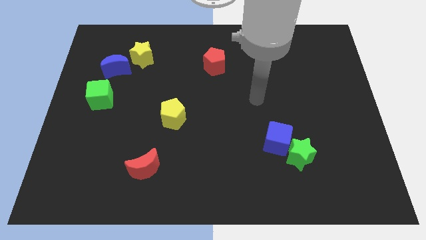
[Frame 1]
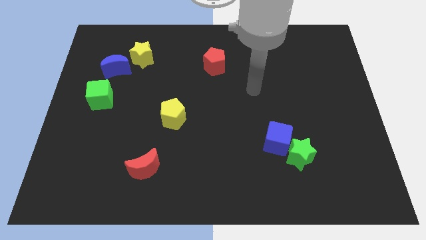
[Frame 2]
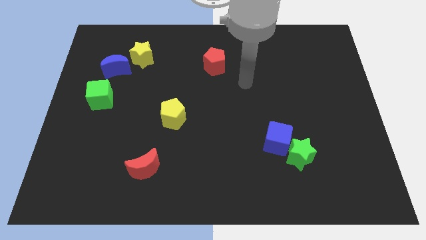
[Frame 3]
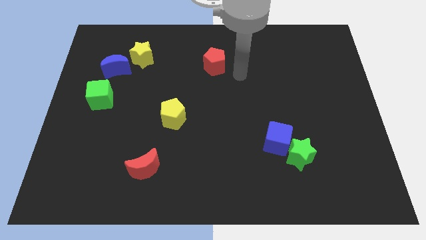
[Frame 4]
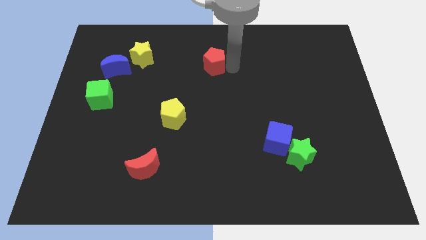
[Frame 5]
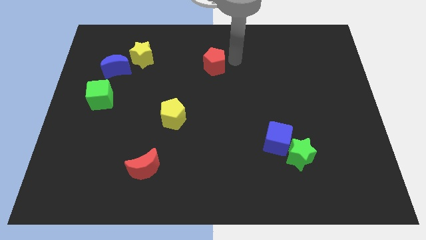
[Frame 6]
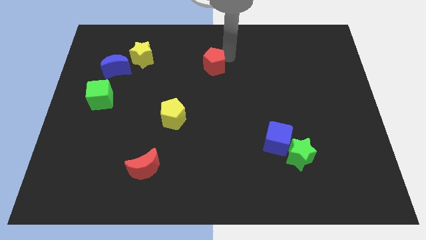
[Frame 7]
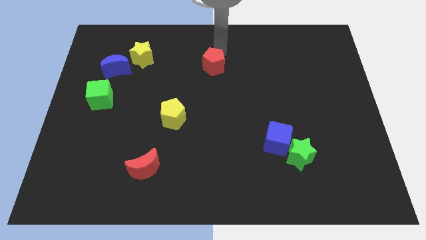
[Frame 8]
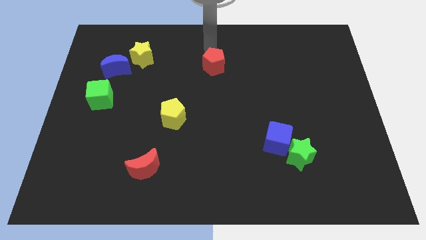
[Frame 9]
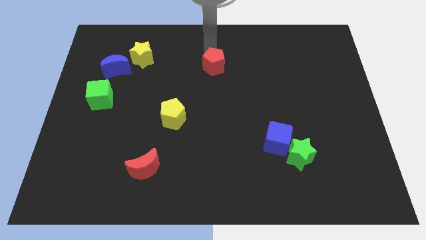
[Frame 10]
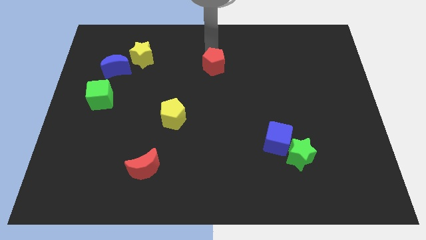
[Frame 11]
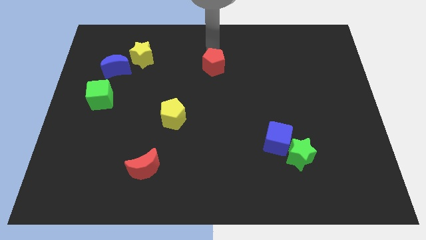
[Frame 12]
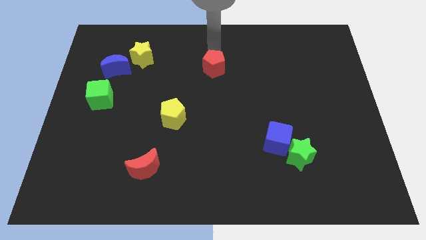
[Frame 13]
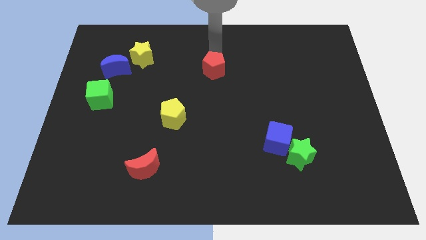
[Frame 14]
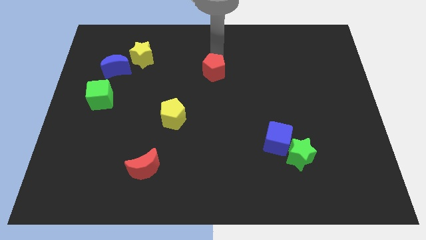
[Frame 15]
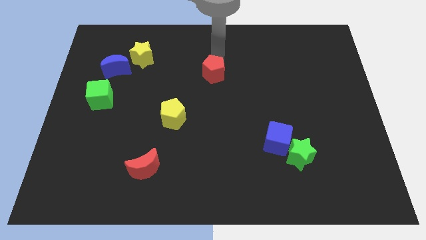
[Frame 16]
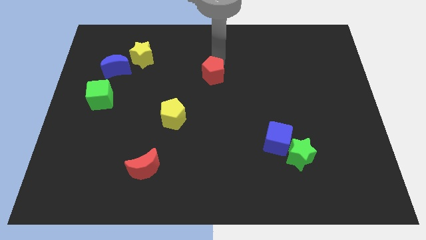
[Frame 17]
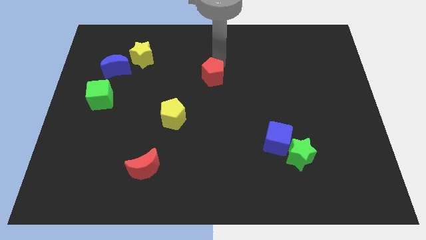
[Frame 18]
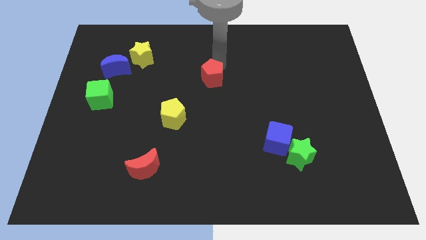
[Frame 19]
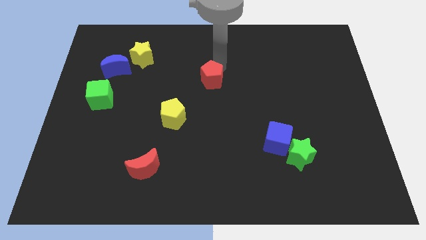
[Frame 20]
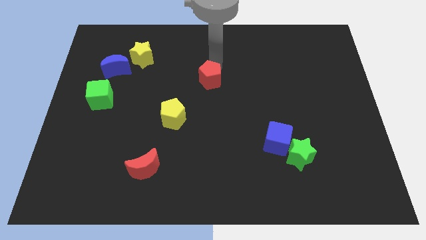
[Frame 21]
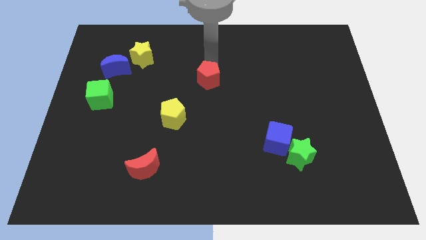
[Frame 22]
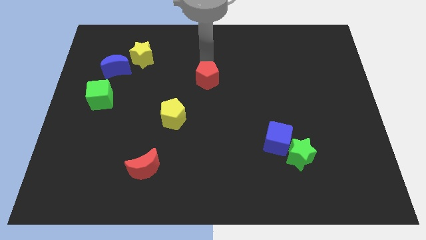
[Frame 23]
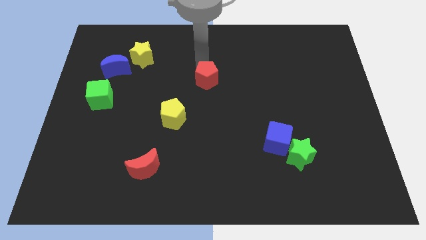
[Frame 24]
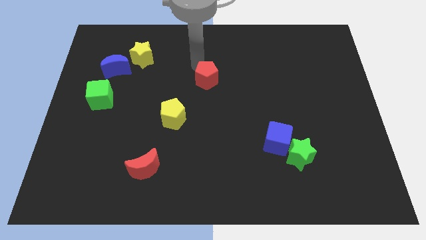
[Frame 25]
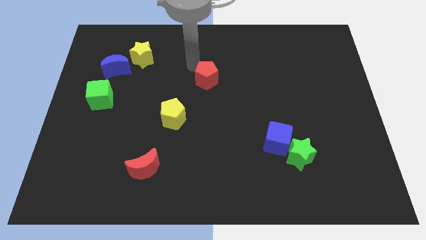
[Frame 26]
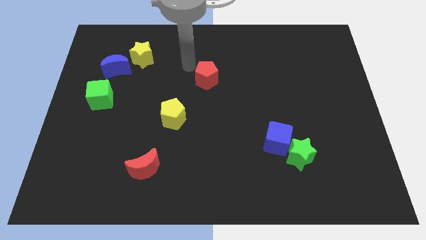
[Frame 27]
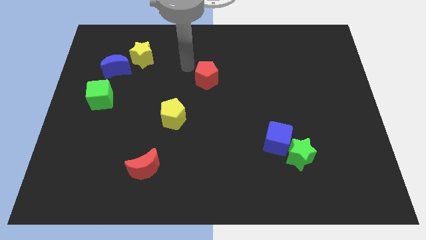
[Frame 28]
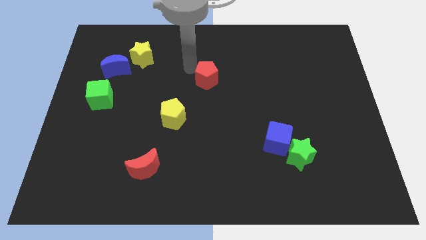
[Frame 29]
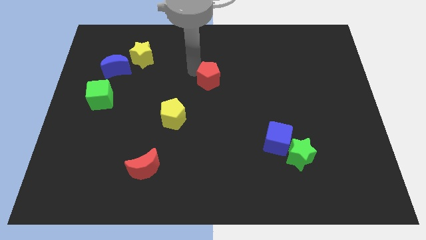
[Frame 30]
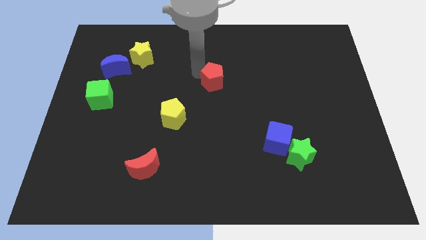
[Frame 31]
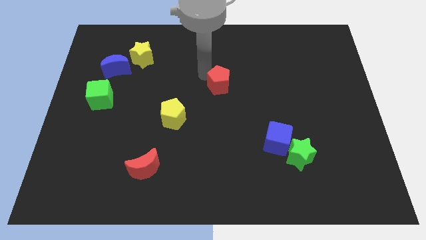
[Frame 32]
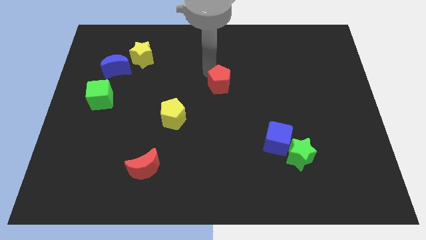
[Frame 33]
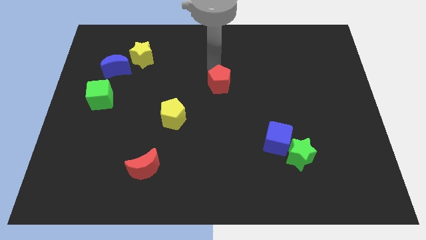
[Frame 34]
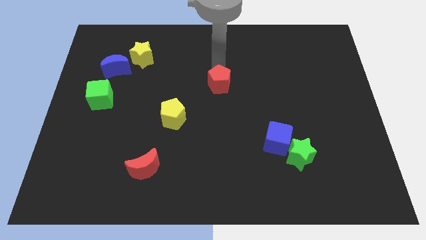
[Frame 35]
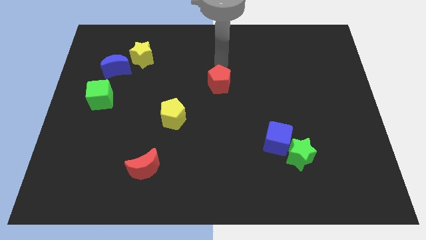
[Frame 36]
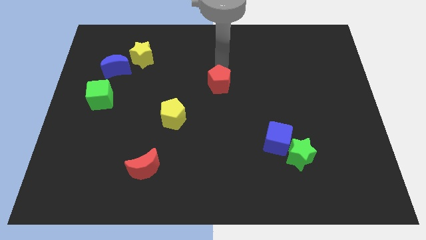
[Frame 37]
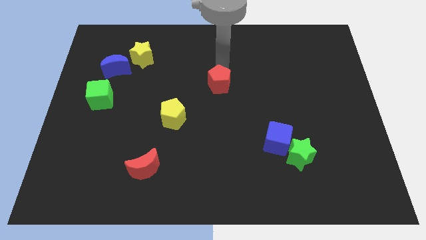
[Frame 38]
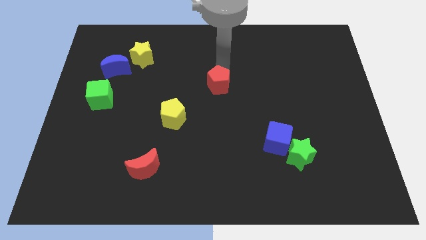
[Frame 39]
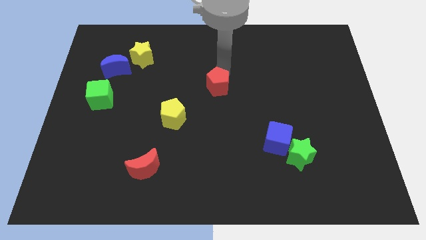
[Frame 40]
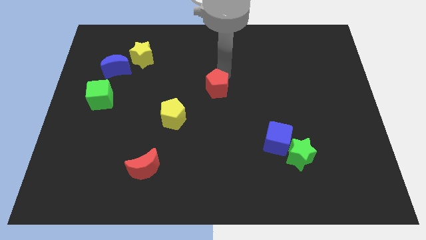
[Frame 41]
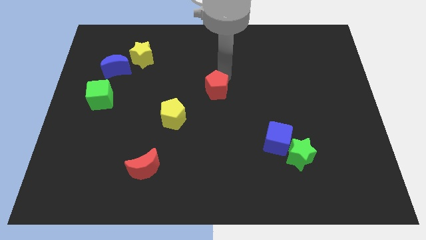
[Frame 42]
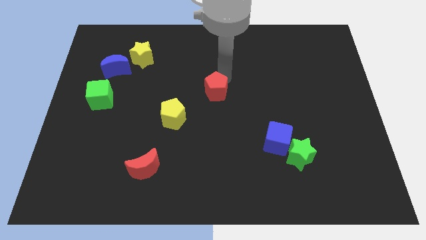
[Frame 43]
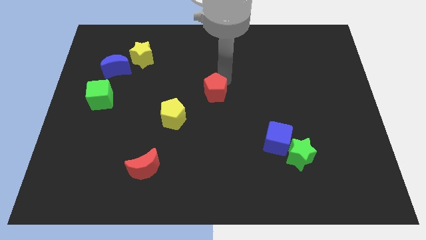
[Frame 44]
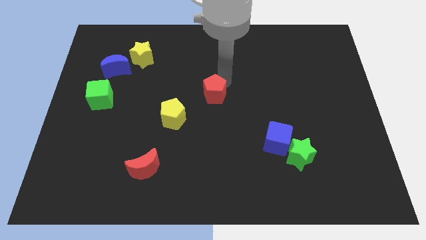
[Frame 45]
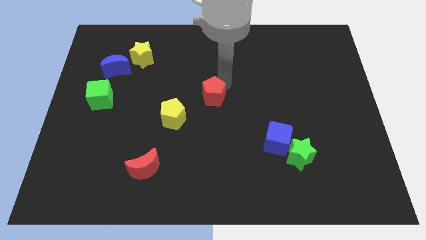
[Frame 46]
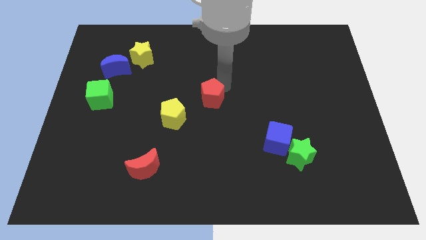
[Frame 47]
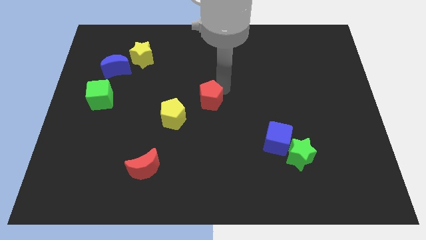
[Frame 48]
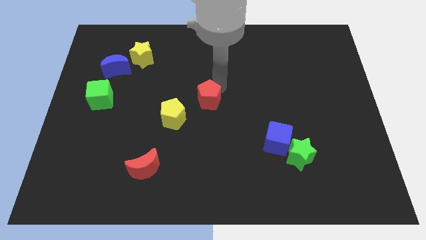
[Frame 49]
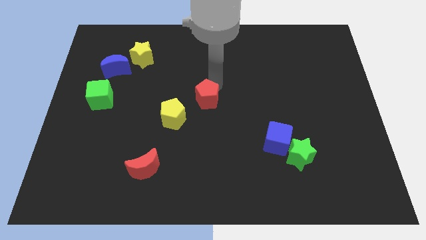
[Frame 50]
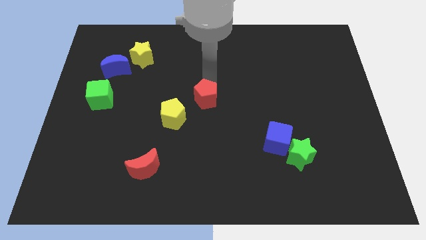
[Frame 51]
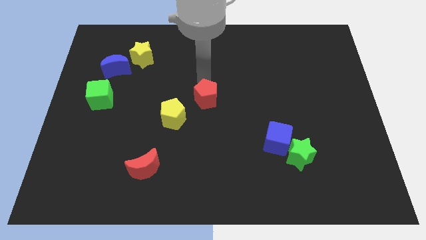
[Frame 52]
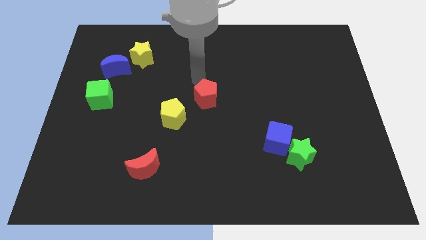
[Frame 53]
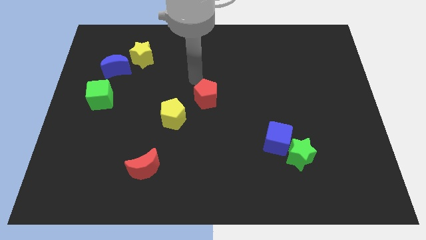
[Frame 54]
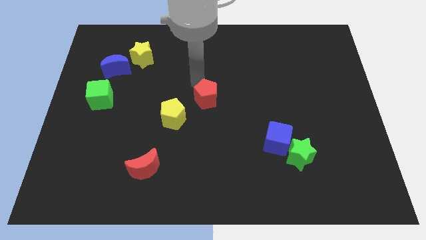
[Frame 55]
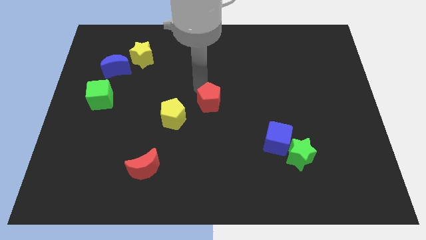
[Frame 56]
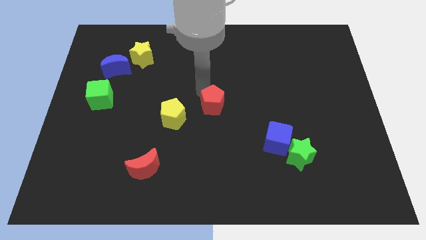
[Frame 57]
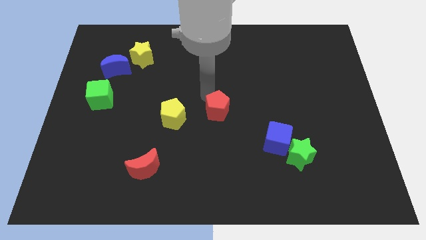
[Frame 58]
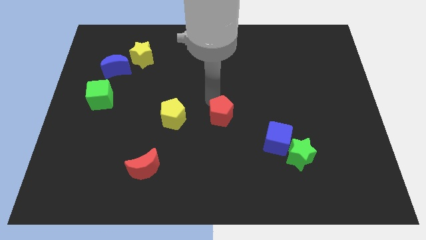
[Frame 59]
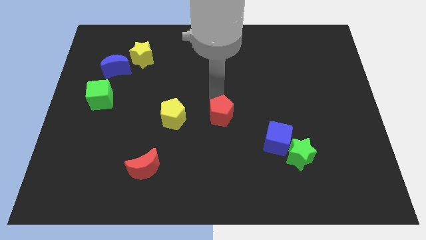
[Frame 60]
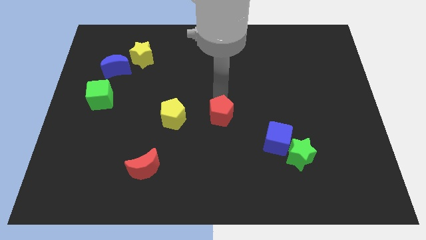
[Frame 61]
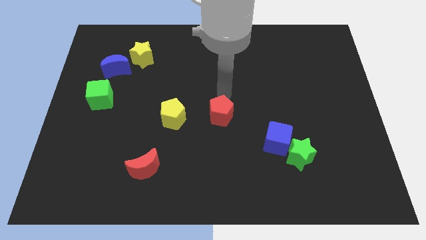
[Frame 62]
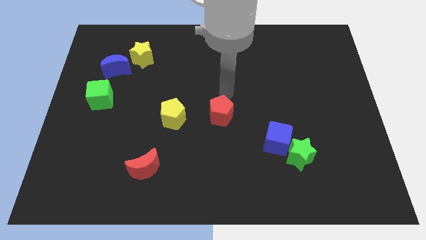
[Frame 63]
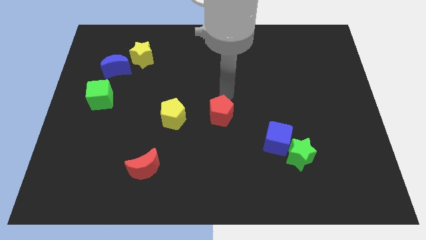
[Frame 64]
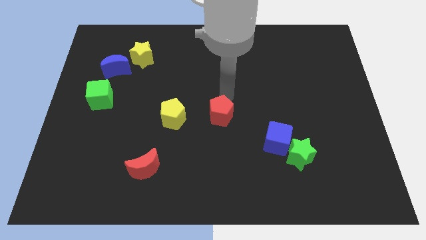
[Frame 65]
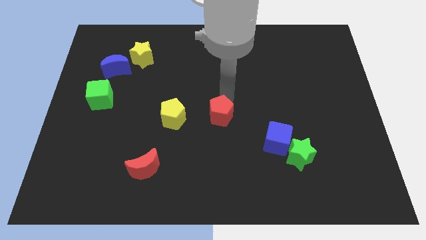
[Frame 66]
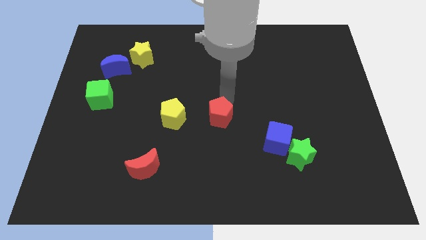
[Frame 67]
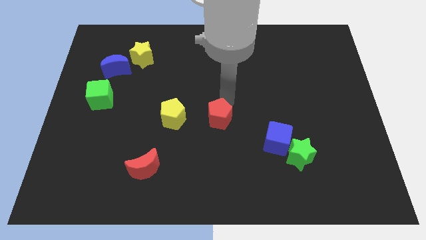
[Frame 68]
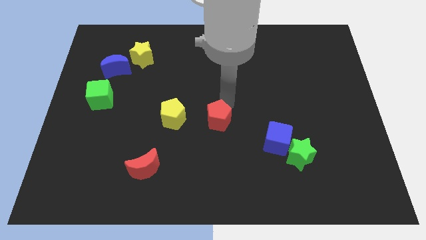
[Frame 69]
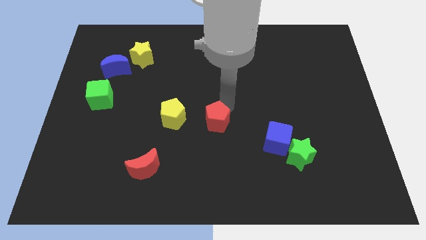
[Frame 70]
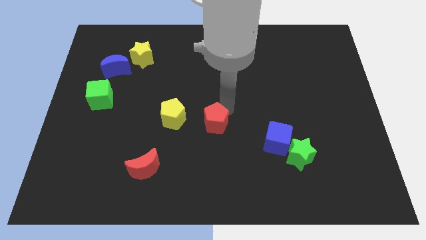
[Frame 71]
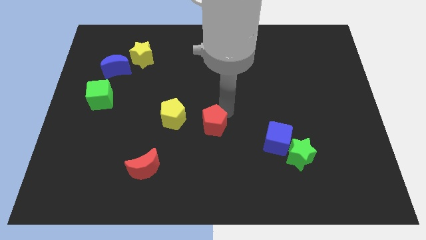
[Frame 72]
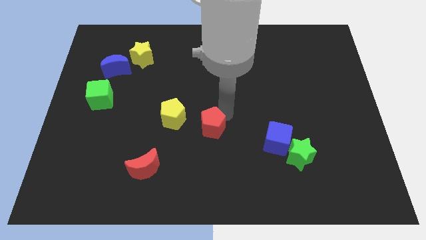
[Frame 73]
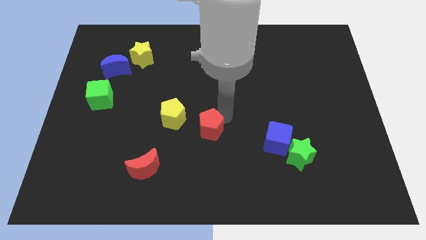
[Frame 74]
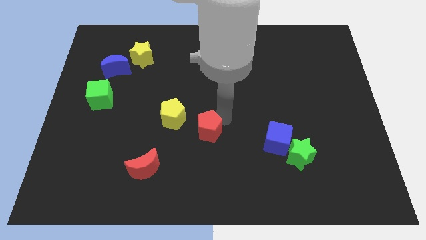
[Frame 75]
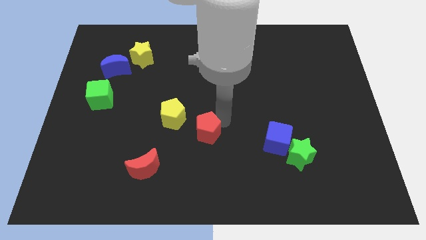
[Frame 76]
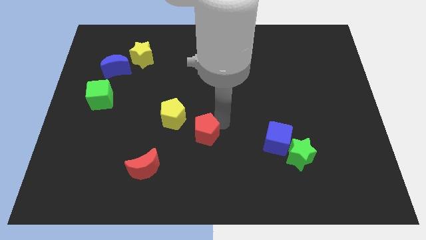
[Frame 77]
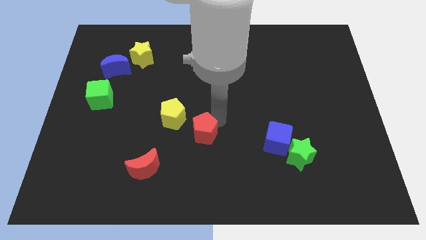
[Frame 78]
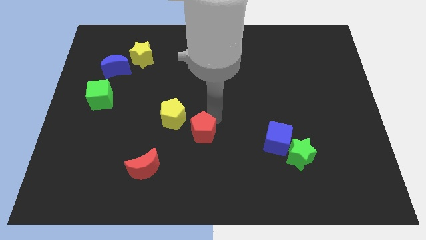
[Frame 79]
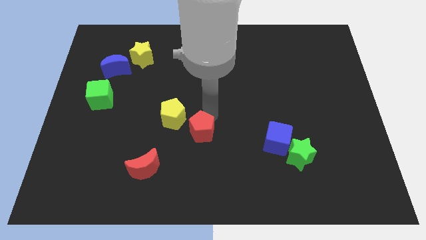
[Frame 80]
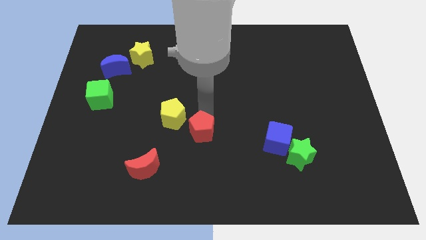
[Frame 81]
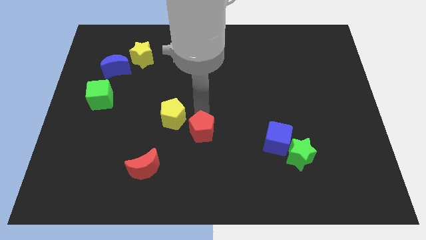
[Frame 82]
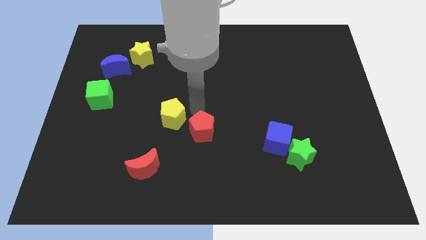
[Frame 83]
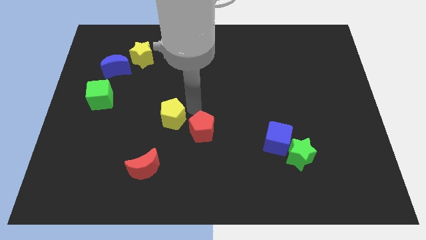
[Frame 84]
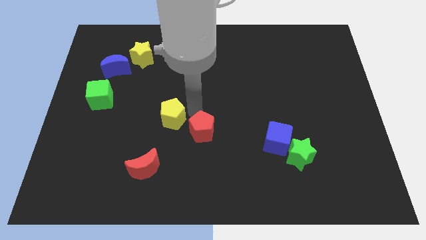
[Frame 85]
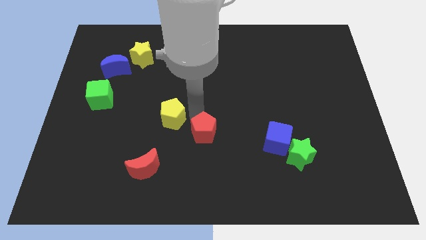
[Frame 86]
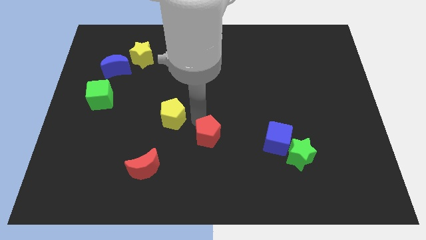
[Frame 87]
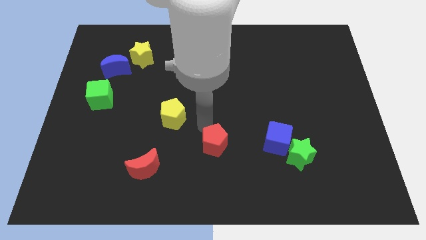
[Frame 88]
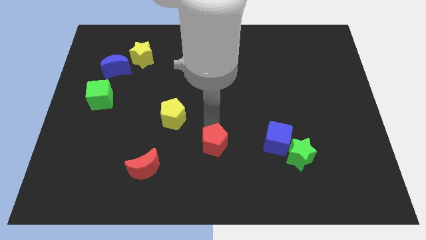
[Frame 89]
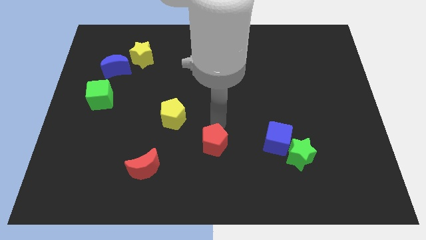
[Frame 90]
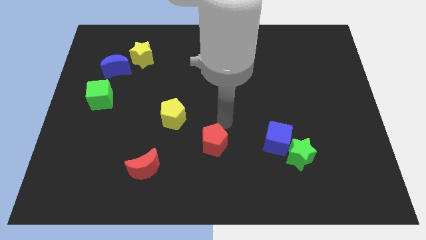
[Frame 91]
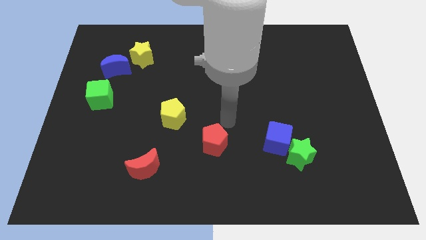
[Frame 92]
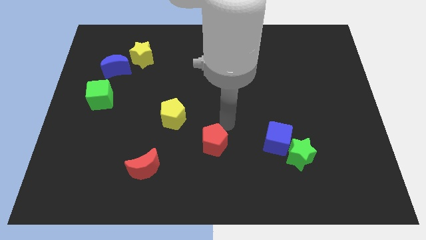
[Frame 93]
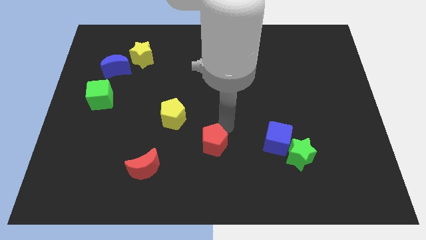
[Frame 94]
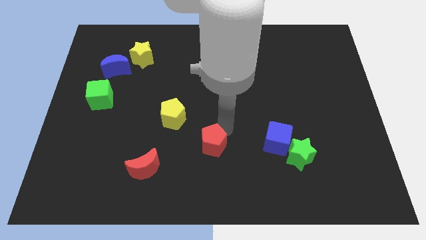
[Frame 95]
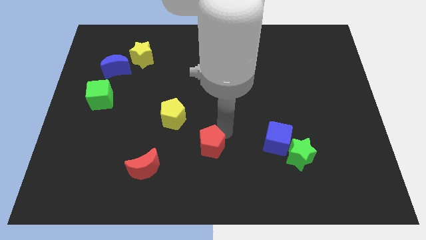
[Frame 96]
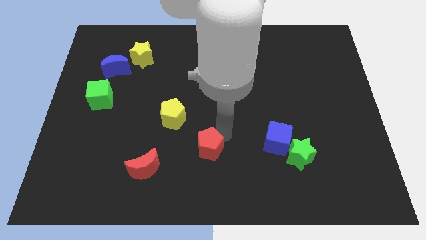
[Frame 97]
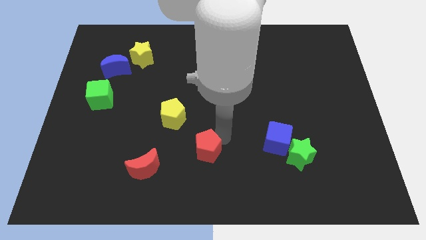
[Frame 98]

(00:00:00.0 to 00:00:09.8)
push the red pentagon right of the red moon
